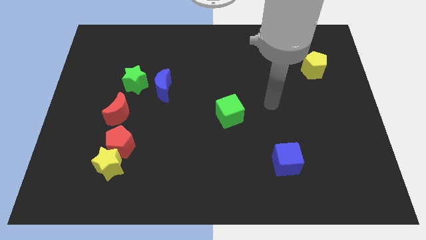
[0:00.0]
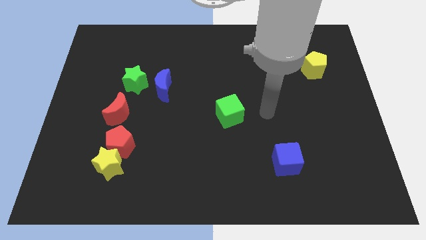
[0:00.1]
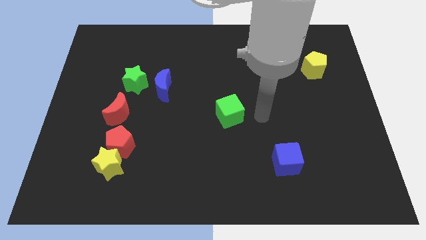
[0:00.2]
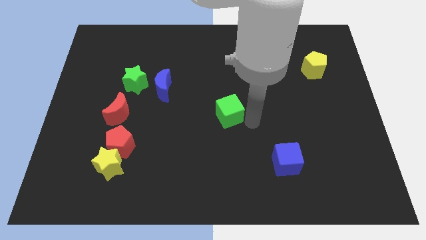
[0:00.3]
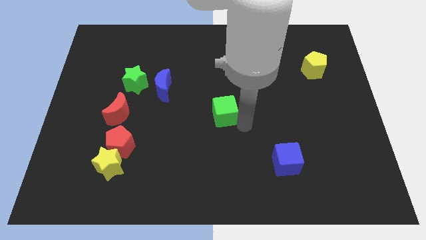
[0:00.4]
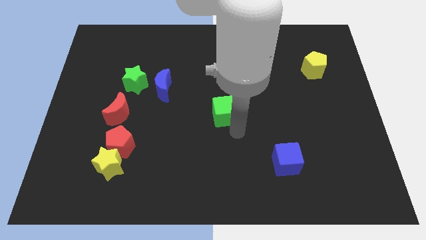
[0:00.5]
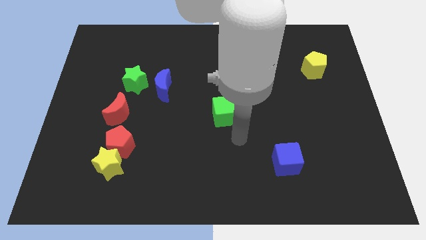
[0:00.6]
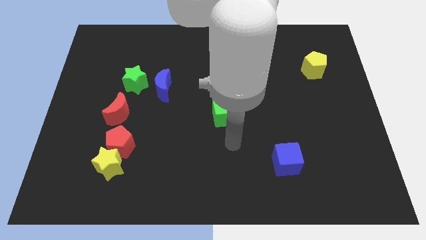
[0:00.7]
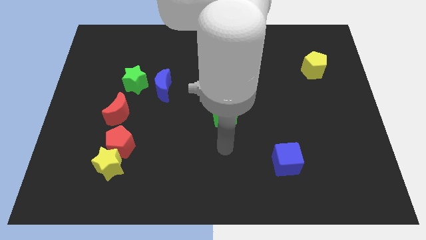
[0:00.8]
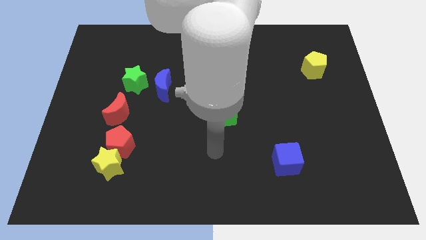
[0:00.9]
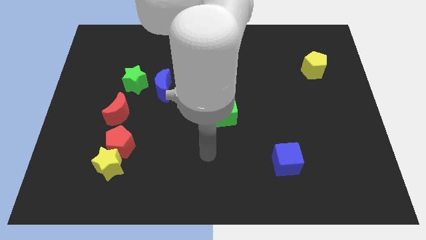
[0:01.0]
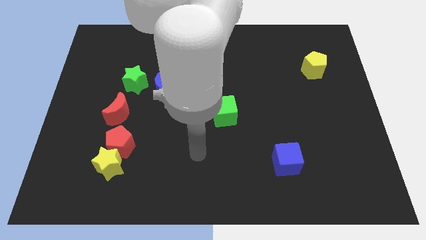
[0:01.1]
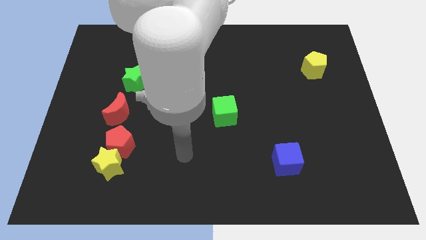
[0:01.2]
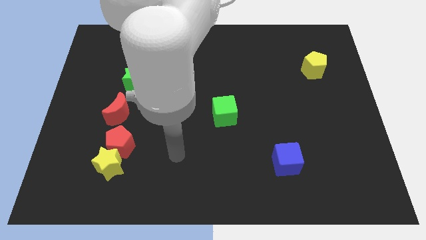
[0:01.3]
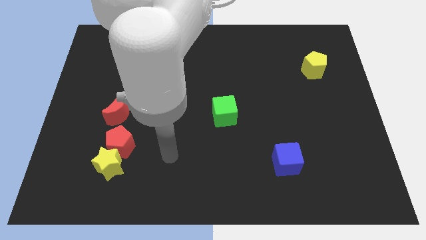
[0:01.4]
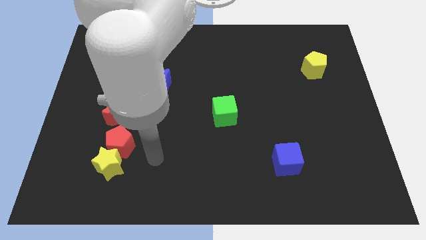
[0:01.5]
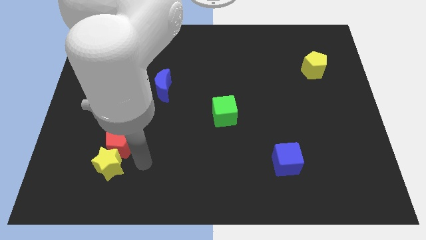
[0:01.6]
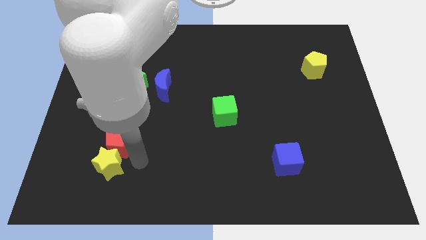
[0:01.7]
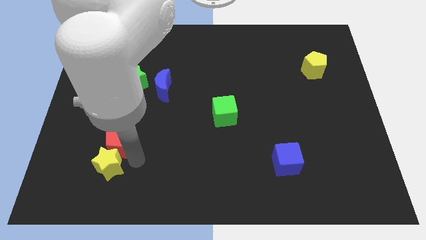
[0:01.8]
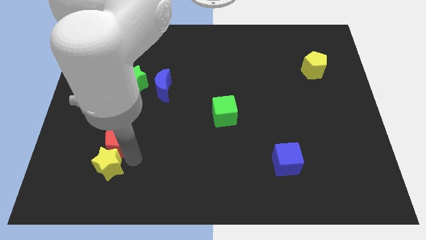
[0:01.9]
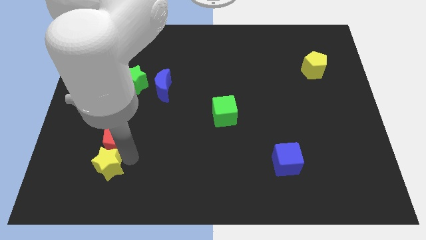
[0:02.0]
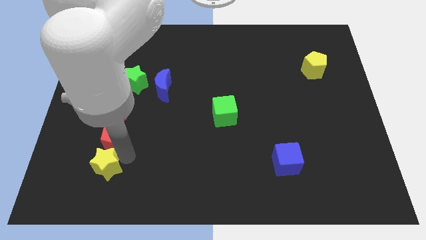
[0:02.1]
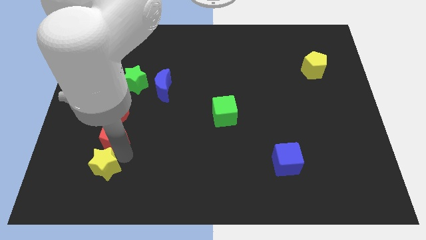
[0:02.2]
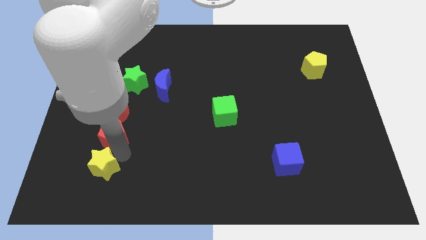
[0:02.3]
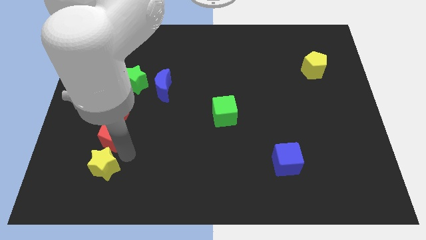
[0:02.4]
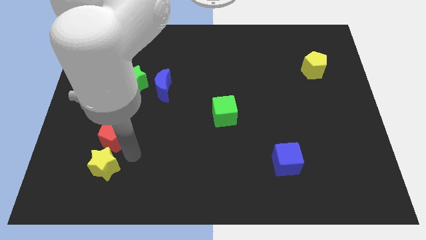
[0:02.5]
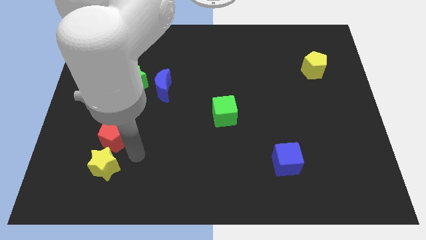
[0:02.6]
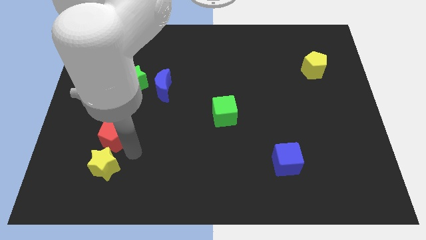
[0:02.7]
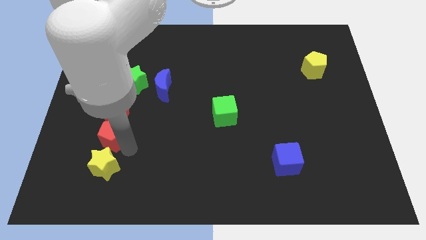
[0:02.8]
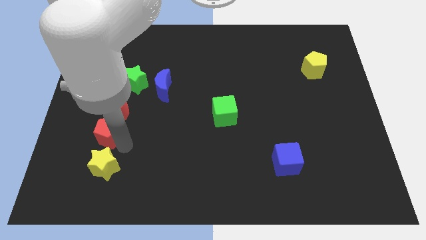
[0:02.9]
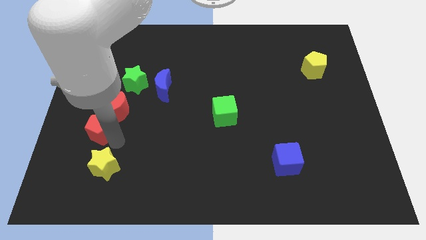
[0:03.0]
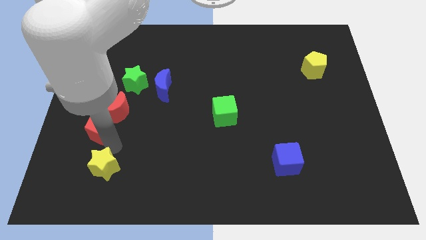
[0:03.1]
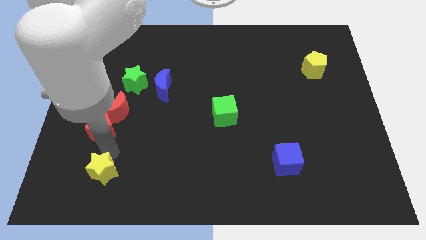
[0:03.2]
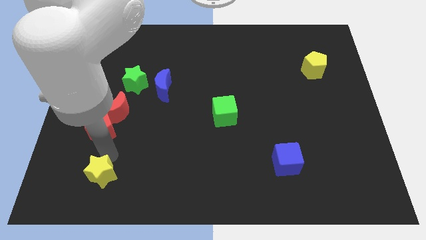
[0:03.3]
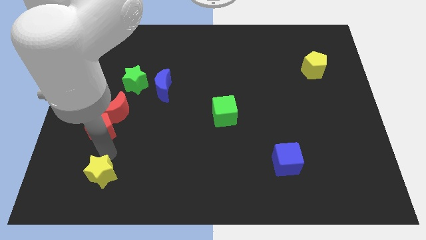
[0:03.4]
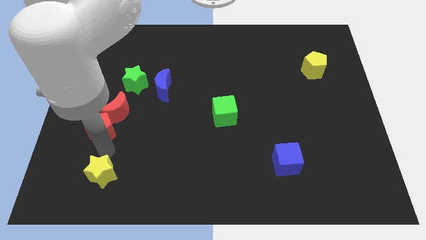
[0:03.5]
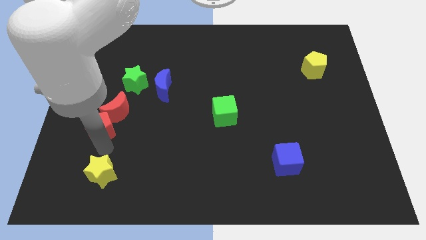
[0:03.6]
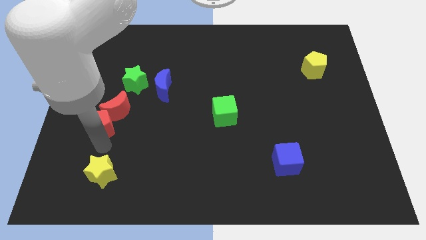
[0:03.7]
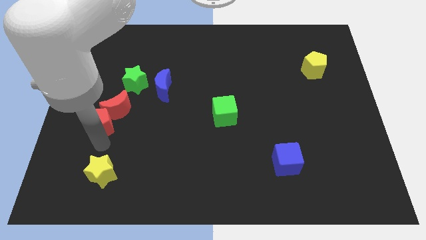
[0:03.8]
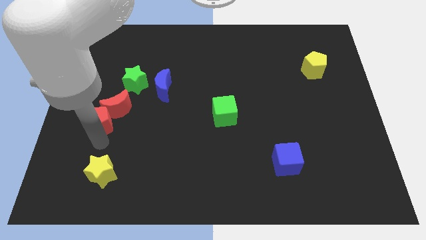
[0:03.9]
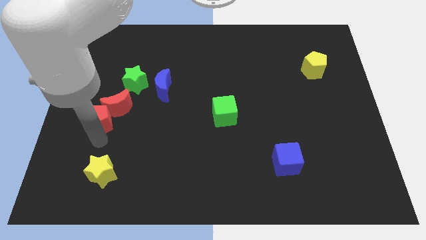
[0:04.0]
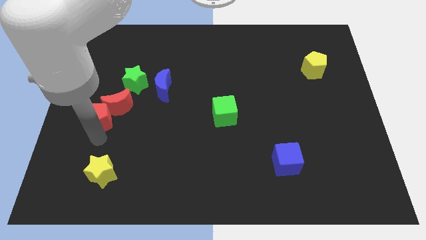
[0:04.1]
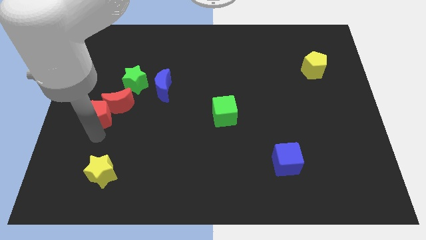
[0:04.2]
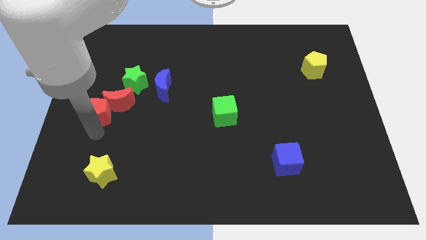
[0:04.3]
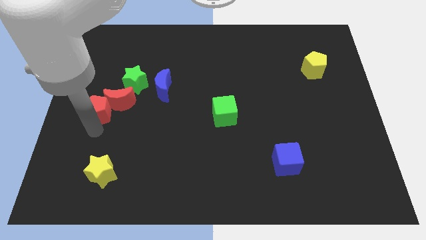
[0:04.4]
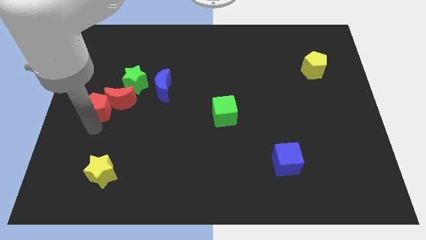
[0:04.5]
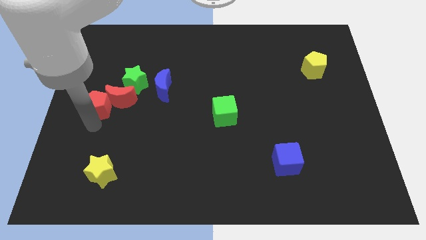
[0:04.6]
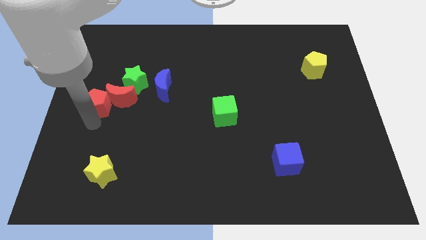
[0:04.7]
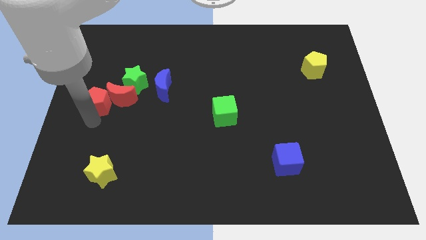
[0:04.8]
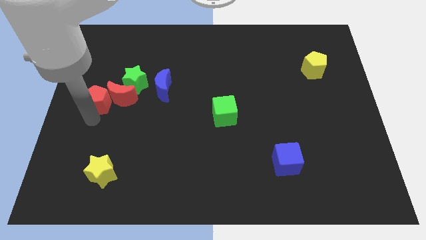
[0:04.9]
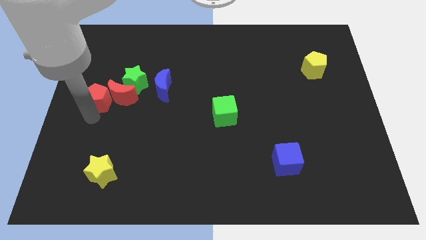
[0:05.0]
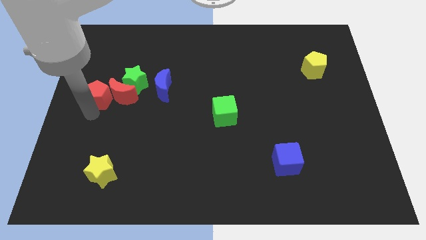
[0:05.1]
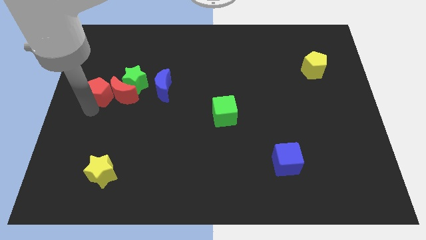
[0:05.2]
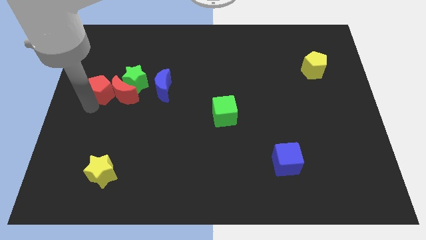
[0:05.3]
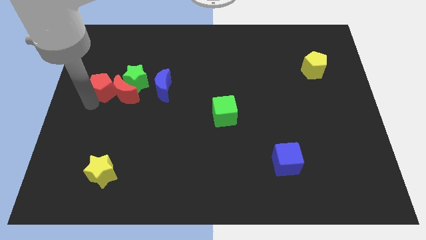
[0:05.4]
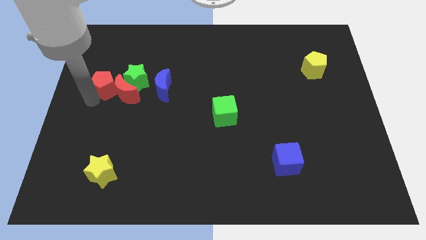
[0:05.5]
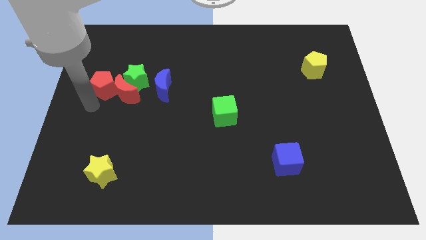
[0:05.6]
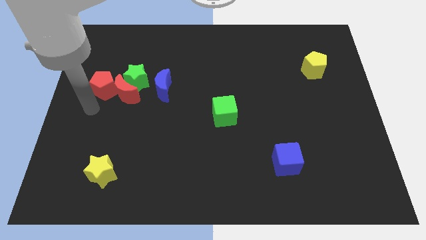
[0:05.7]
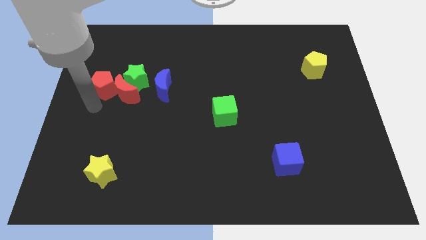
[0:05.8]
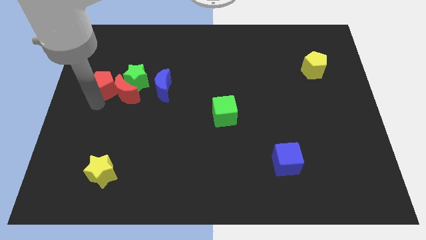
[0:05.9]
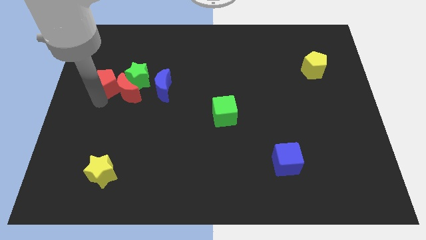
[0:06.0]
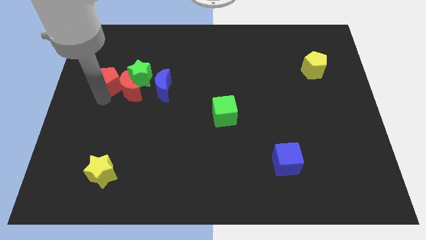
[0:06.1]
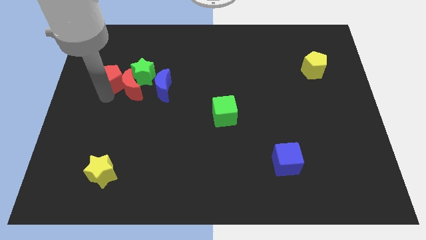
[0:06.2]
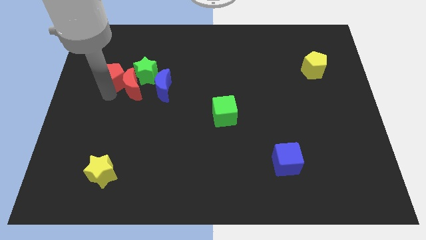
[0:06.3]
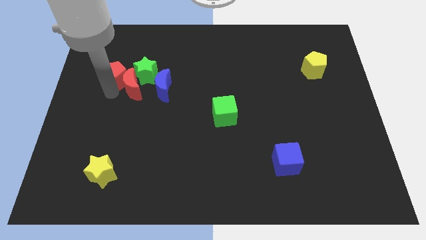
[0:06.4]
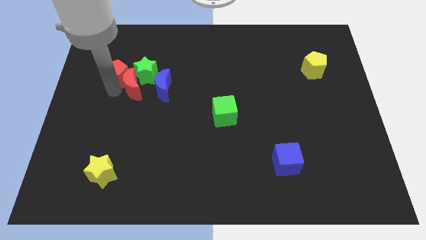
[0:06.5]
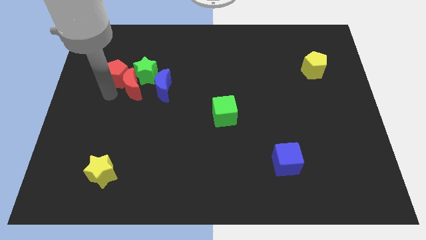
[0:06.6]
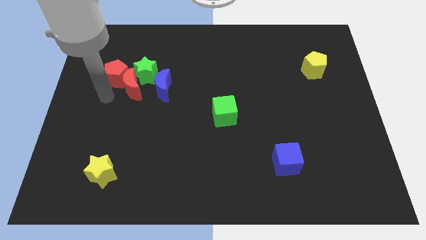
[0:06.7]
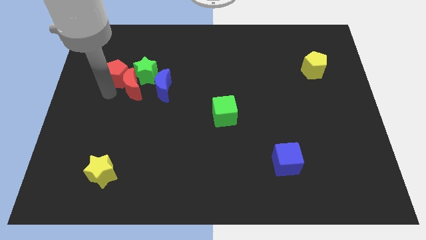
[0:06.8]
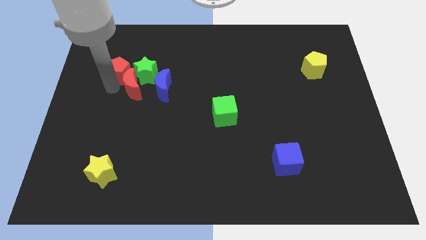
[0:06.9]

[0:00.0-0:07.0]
slide the red pentagon to the top left side of the green star

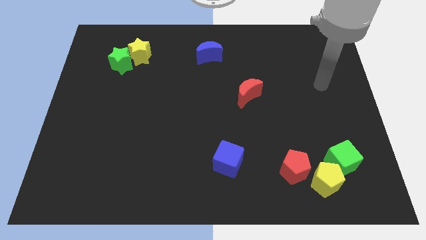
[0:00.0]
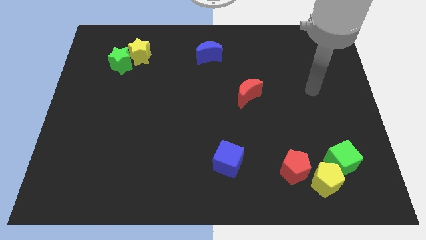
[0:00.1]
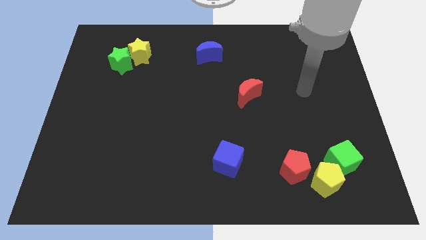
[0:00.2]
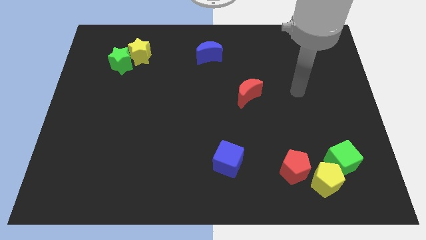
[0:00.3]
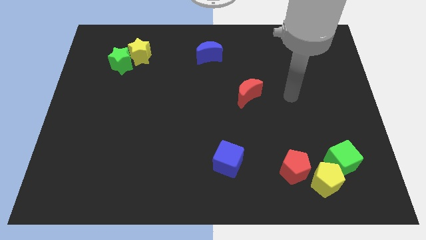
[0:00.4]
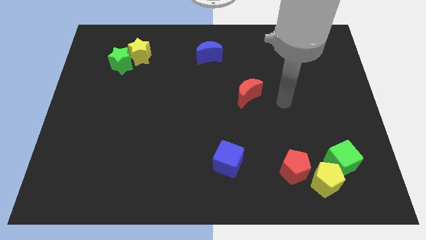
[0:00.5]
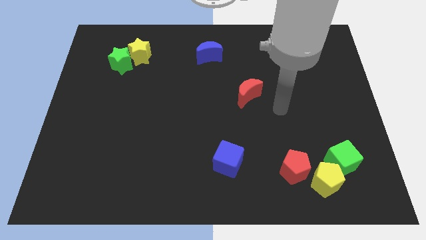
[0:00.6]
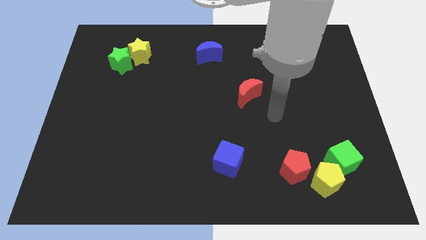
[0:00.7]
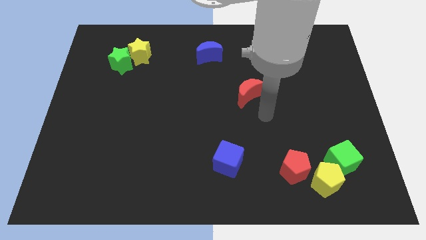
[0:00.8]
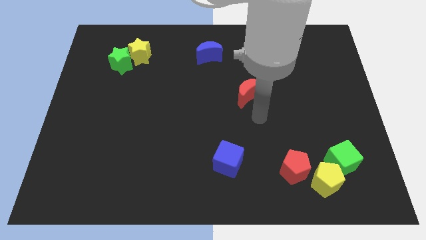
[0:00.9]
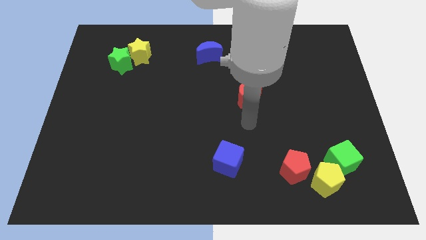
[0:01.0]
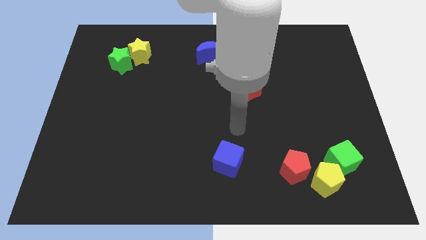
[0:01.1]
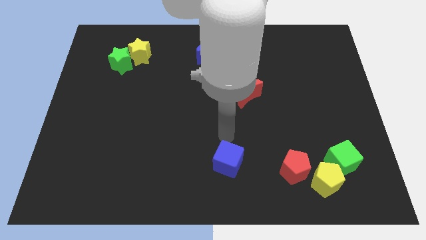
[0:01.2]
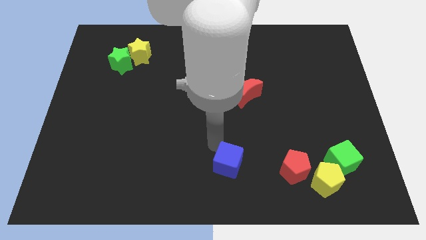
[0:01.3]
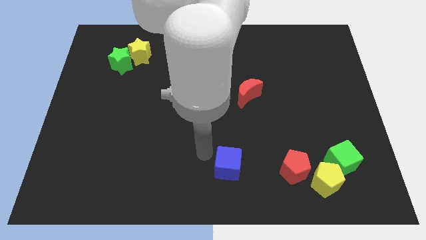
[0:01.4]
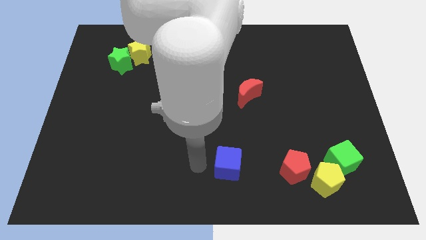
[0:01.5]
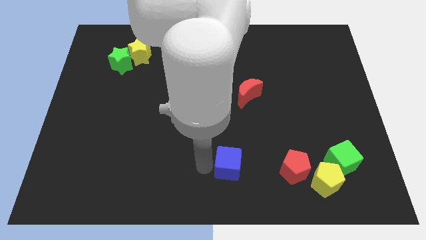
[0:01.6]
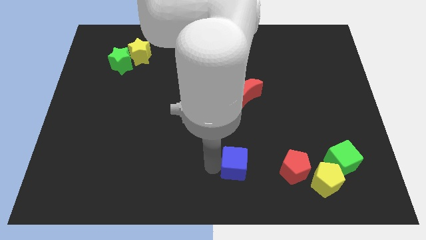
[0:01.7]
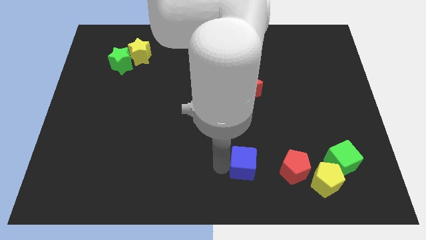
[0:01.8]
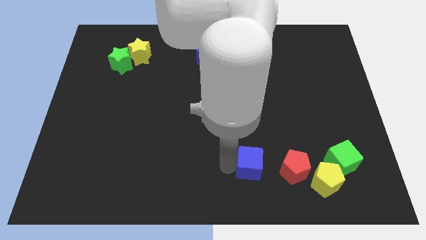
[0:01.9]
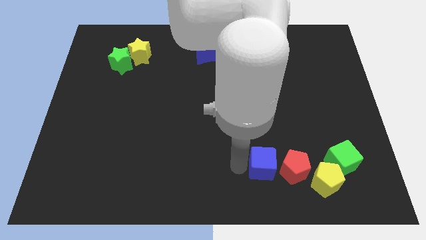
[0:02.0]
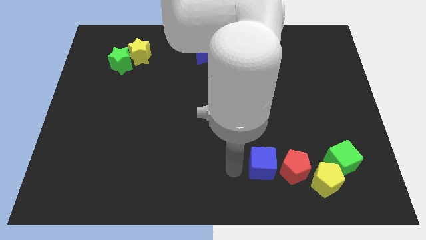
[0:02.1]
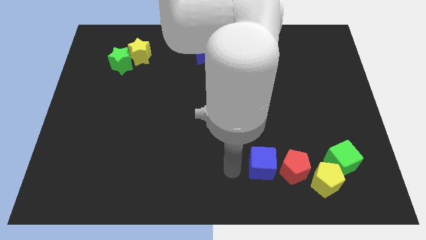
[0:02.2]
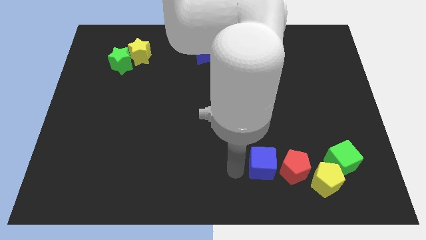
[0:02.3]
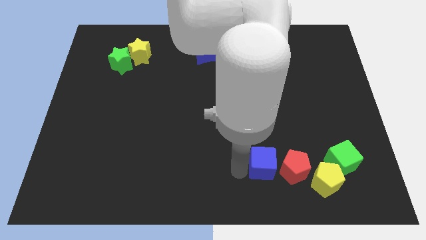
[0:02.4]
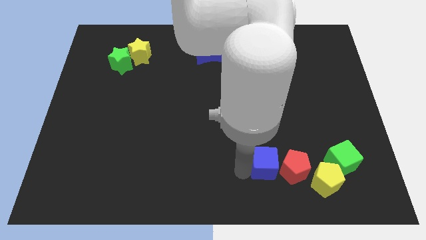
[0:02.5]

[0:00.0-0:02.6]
put the blue cube left of the green cube
